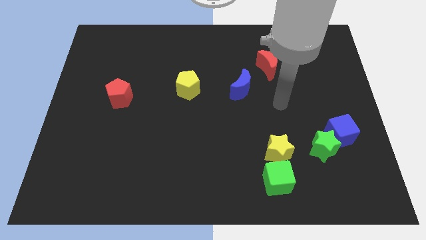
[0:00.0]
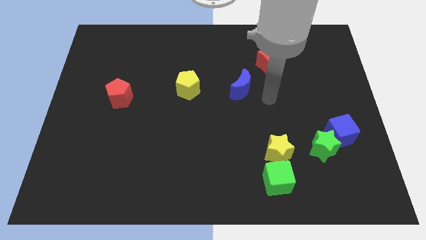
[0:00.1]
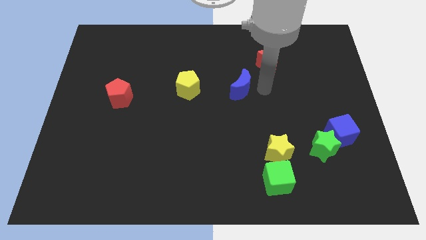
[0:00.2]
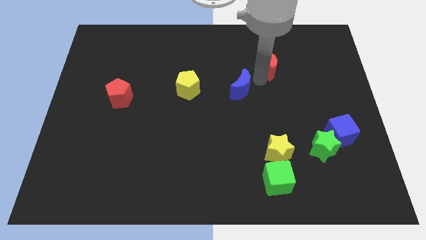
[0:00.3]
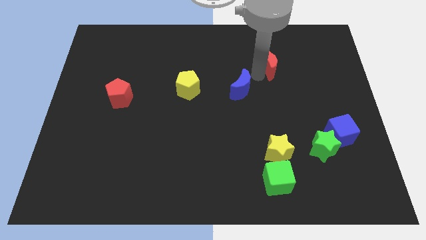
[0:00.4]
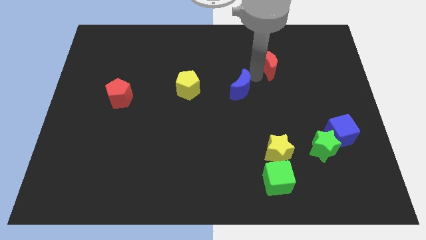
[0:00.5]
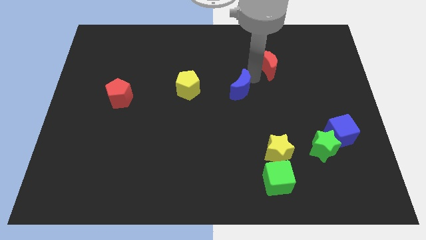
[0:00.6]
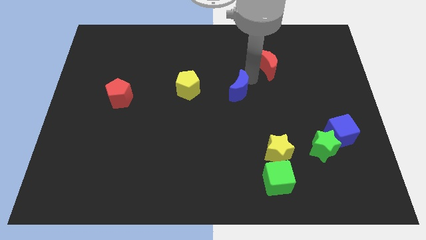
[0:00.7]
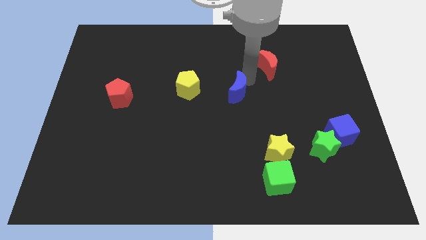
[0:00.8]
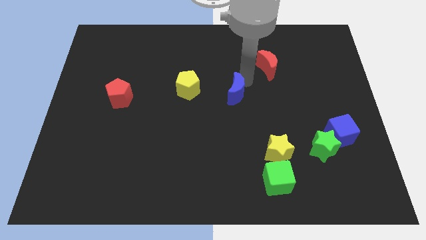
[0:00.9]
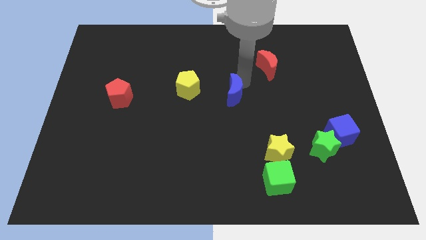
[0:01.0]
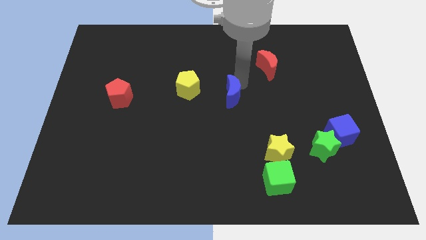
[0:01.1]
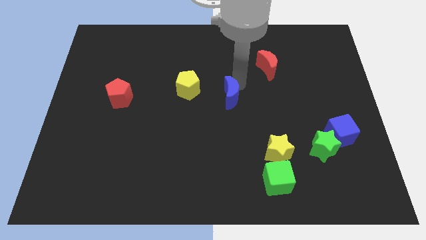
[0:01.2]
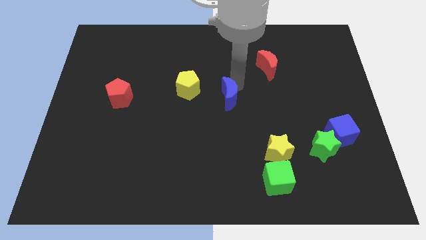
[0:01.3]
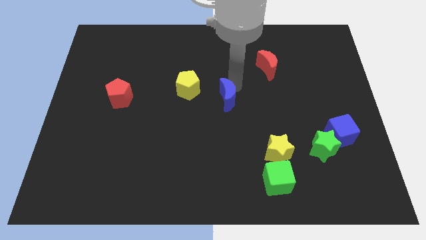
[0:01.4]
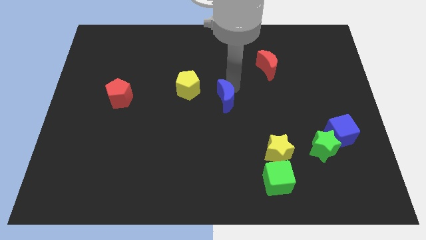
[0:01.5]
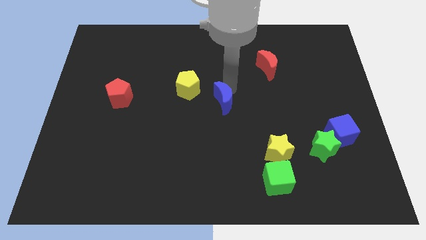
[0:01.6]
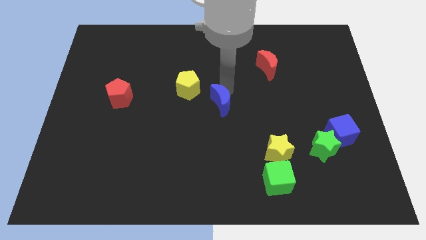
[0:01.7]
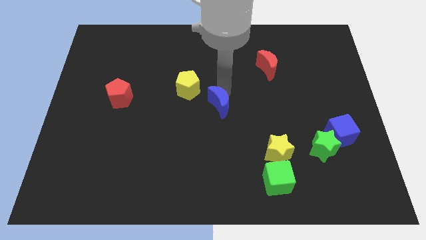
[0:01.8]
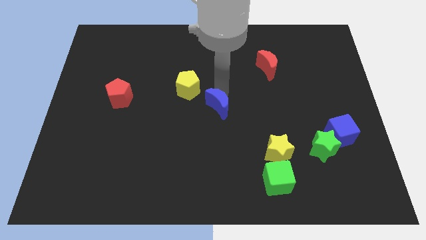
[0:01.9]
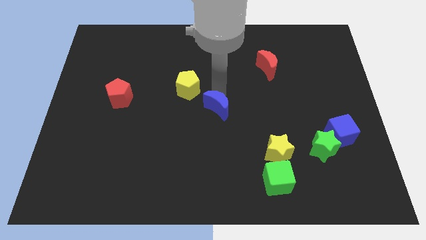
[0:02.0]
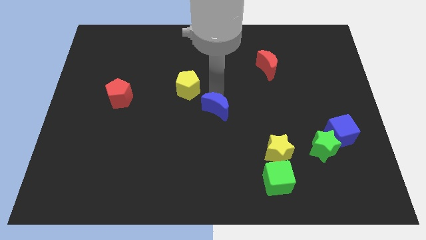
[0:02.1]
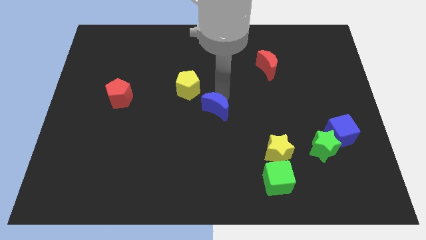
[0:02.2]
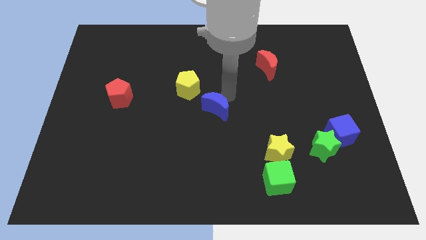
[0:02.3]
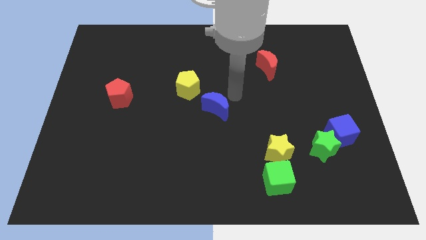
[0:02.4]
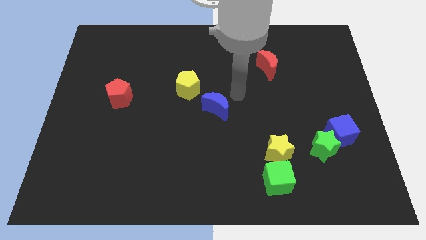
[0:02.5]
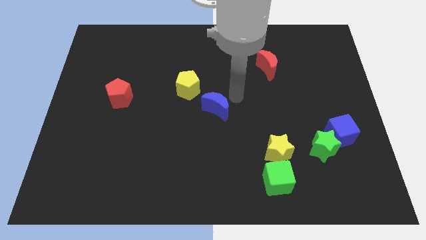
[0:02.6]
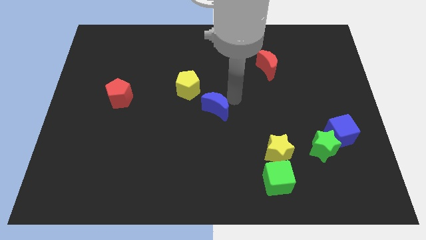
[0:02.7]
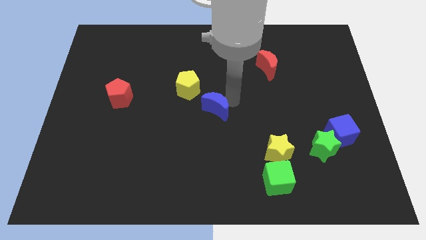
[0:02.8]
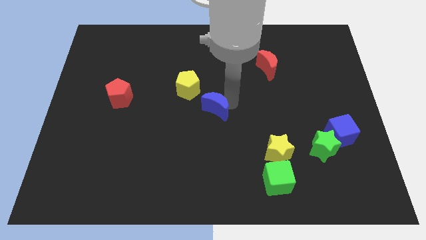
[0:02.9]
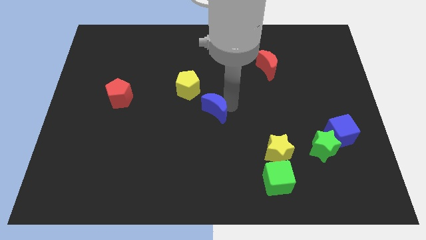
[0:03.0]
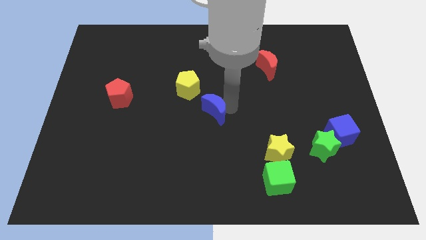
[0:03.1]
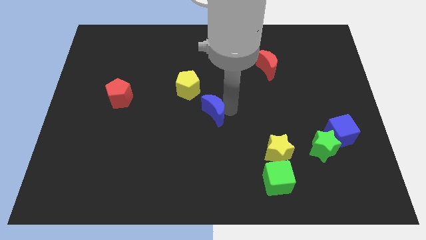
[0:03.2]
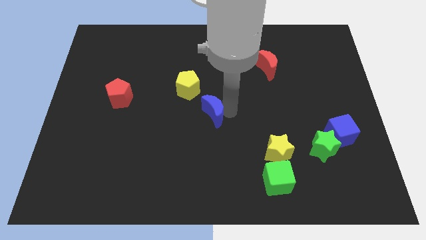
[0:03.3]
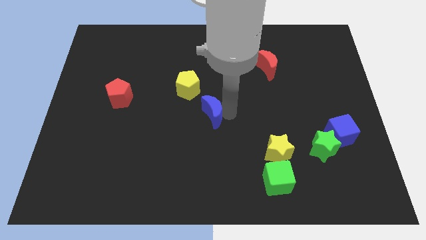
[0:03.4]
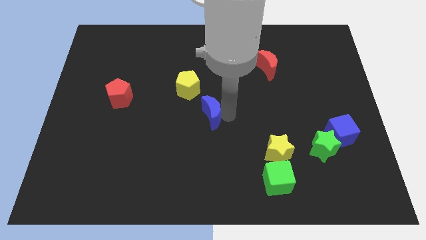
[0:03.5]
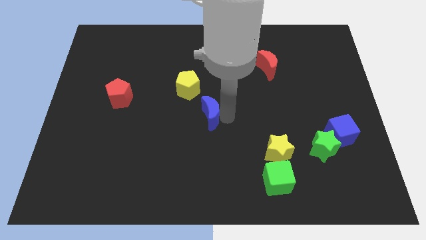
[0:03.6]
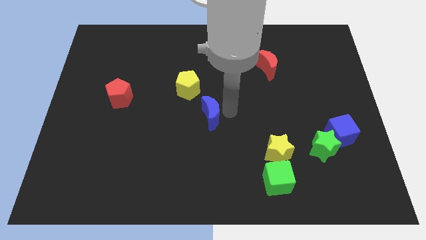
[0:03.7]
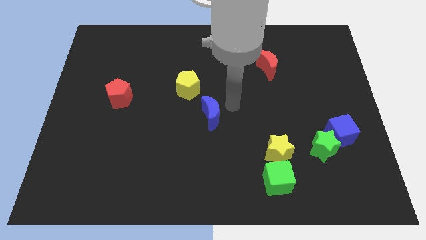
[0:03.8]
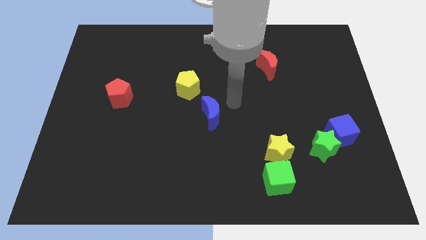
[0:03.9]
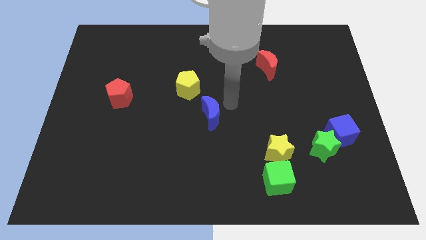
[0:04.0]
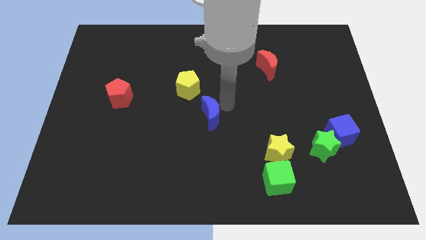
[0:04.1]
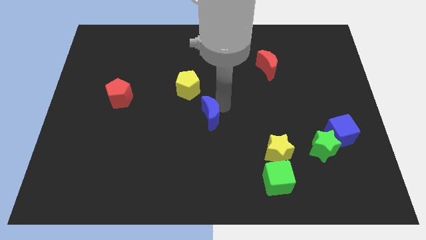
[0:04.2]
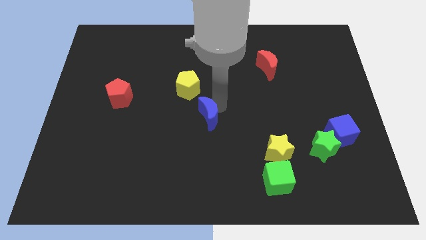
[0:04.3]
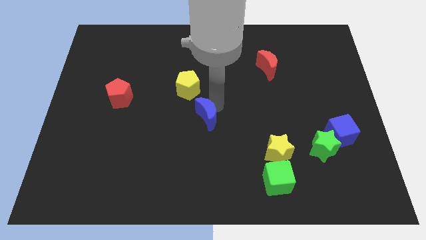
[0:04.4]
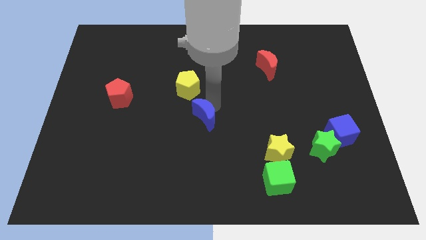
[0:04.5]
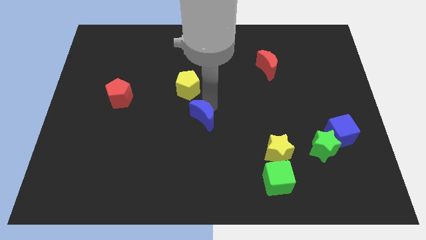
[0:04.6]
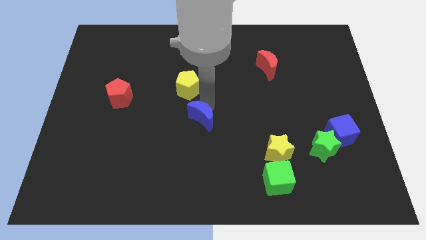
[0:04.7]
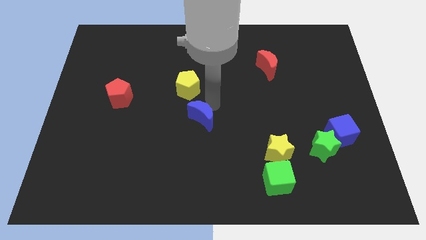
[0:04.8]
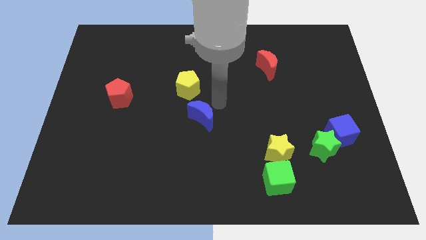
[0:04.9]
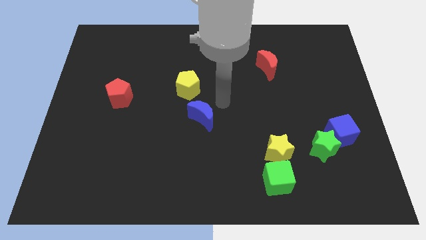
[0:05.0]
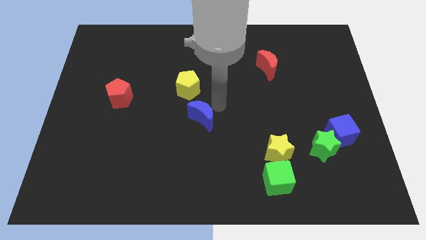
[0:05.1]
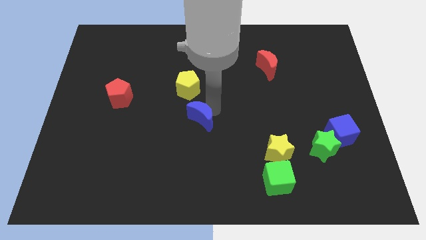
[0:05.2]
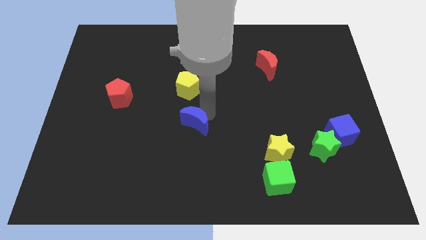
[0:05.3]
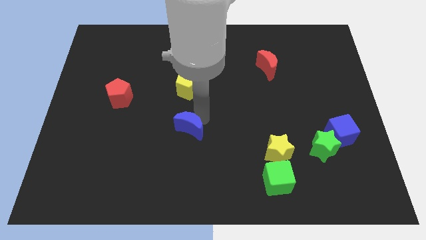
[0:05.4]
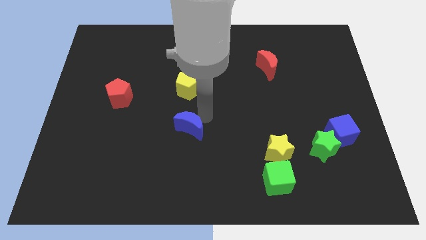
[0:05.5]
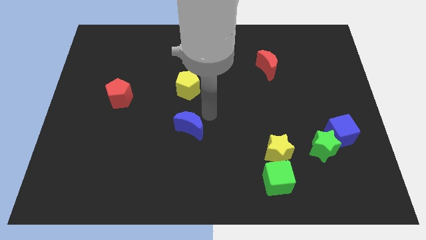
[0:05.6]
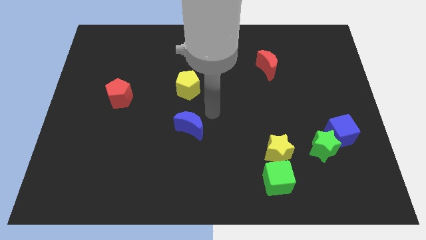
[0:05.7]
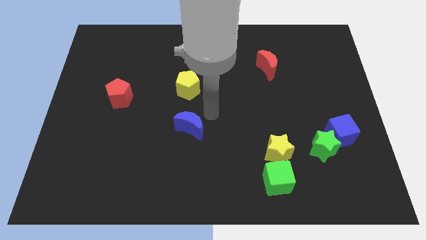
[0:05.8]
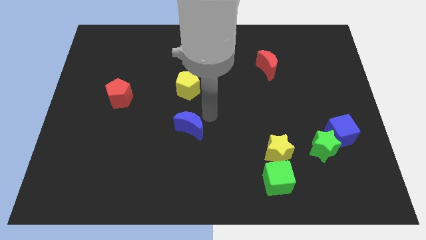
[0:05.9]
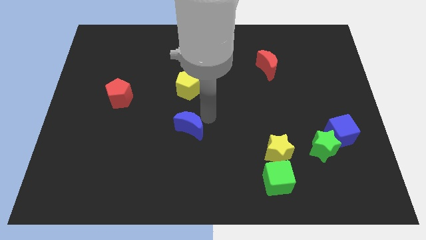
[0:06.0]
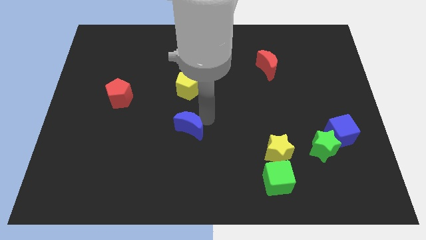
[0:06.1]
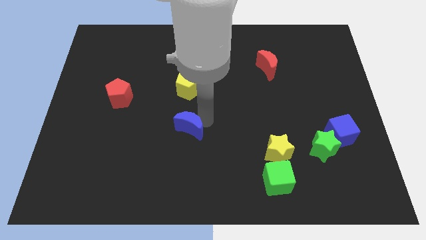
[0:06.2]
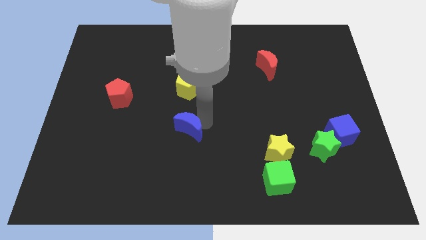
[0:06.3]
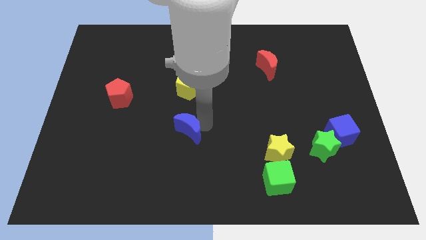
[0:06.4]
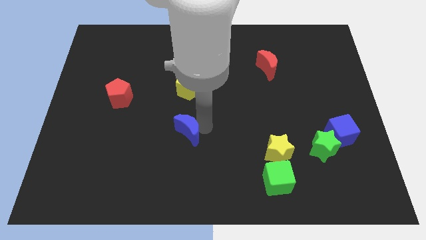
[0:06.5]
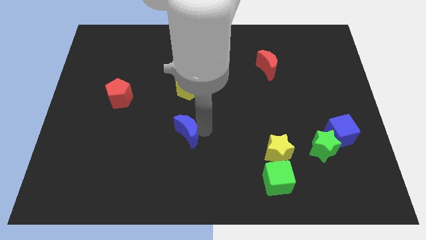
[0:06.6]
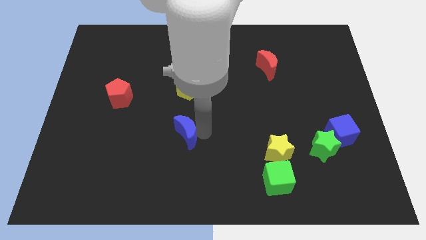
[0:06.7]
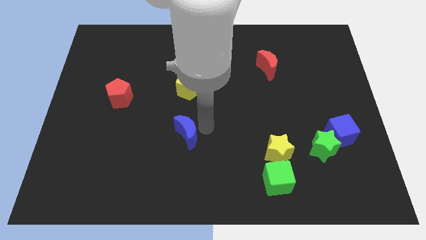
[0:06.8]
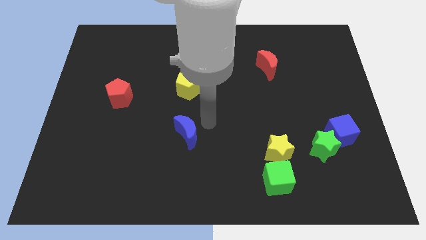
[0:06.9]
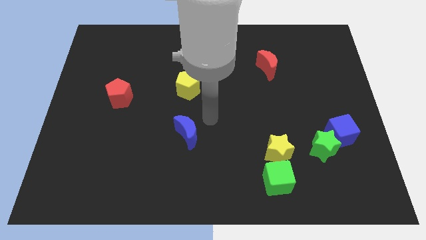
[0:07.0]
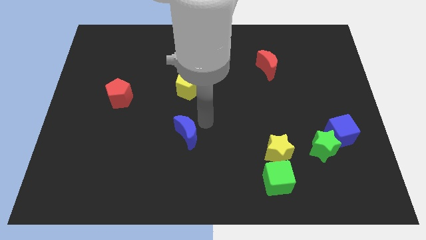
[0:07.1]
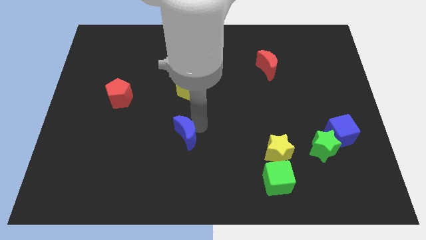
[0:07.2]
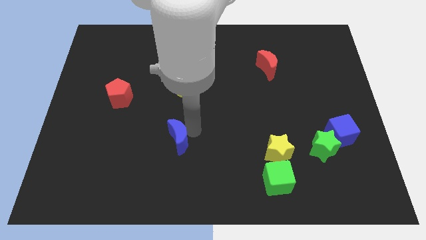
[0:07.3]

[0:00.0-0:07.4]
push the blue moon diagonally down and to the left

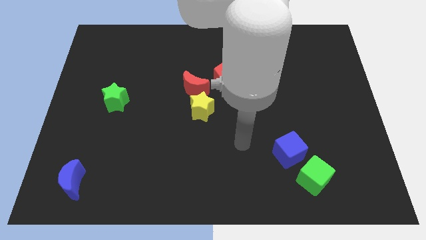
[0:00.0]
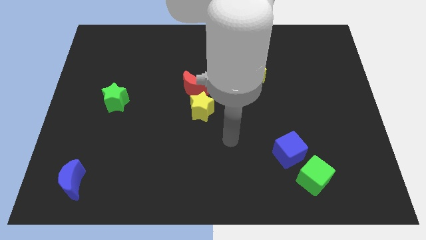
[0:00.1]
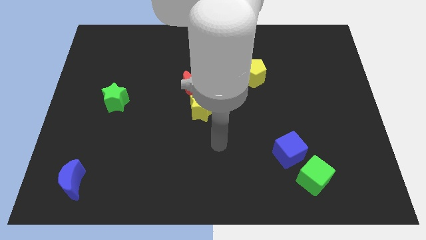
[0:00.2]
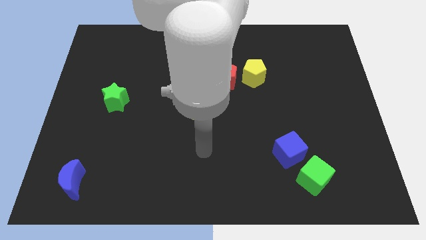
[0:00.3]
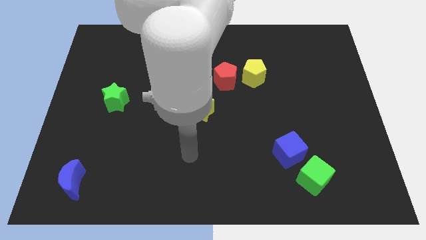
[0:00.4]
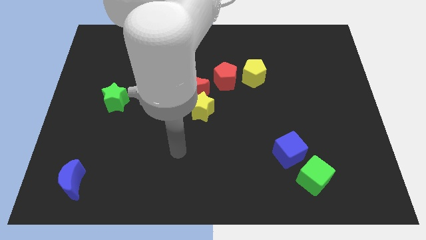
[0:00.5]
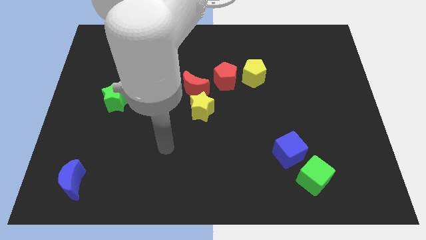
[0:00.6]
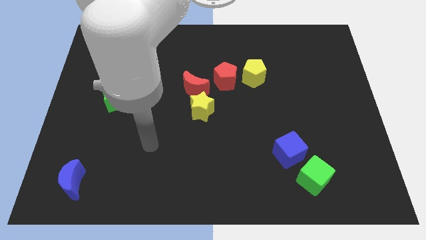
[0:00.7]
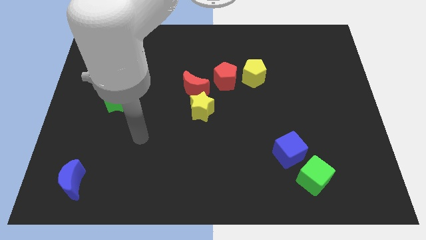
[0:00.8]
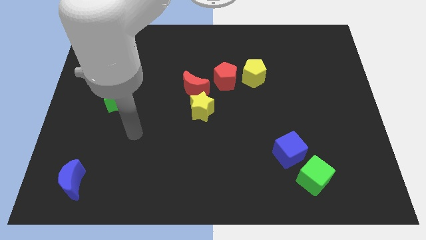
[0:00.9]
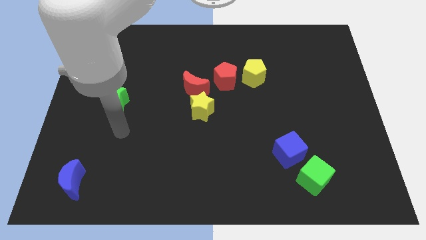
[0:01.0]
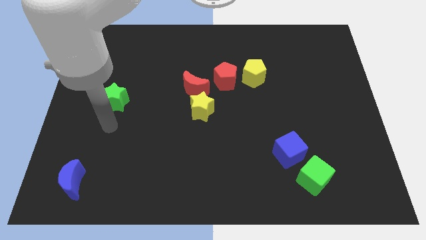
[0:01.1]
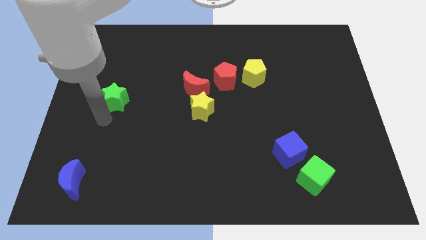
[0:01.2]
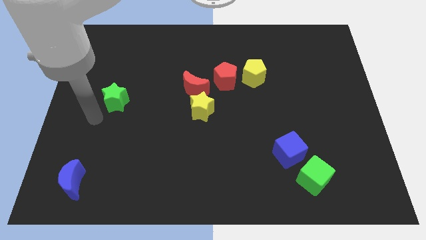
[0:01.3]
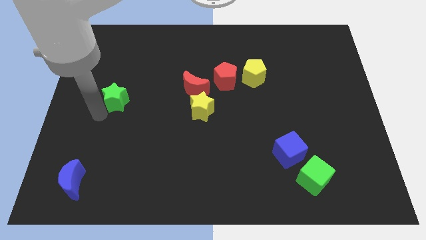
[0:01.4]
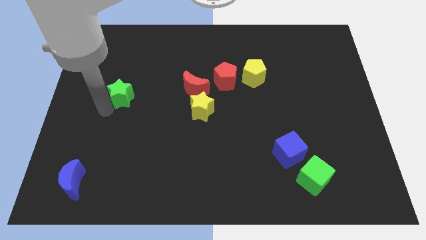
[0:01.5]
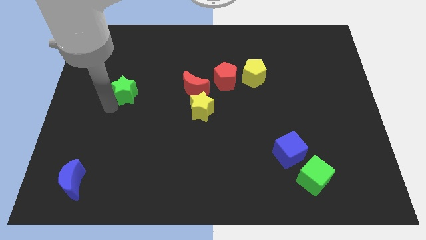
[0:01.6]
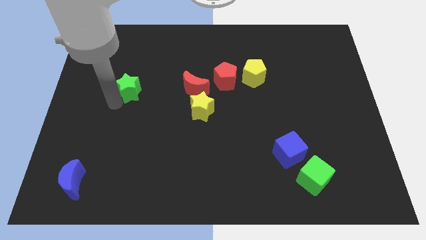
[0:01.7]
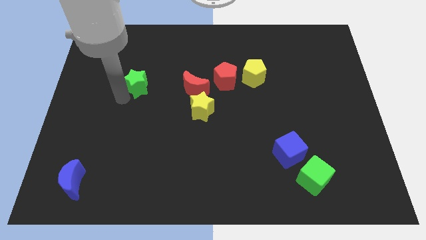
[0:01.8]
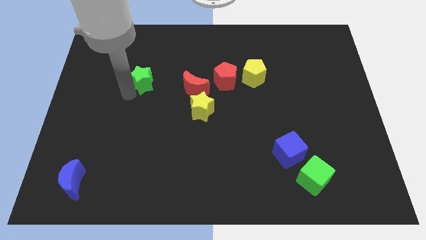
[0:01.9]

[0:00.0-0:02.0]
slightly move the green star upwards and right diagonally
